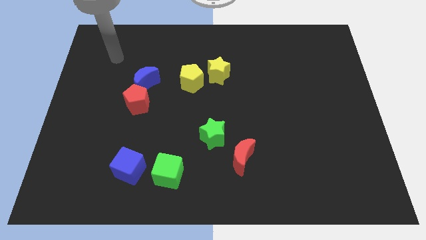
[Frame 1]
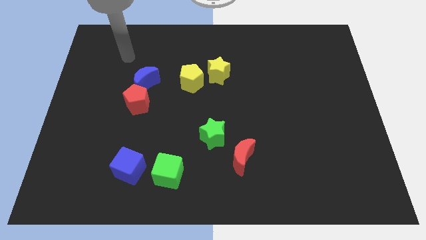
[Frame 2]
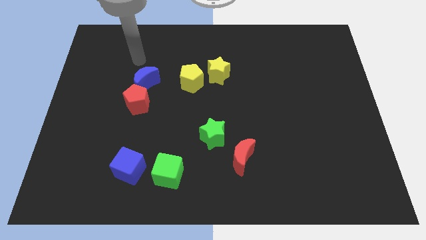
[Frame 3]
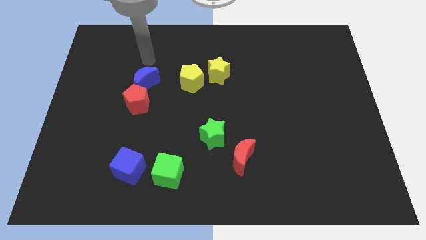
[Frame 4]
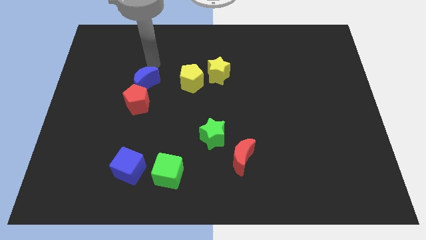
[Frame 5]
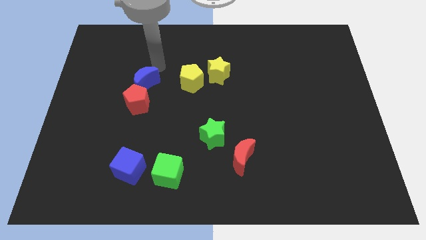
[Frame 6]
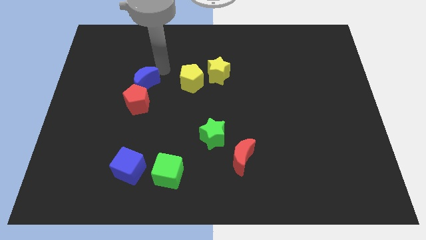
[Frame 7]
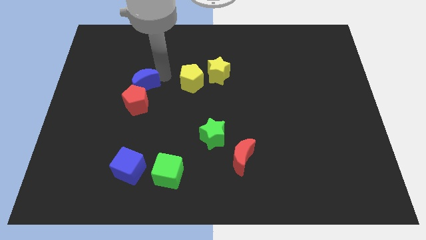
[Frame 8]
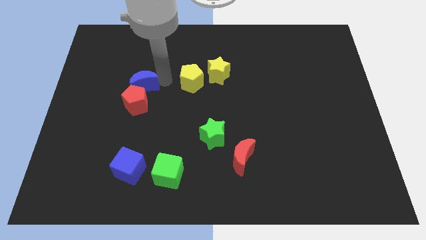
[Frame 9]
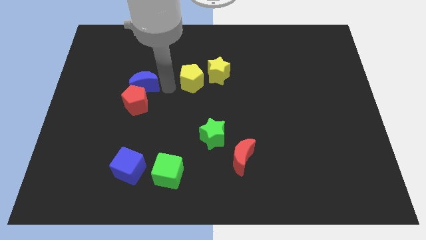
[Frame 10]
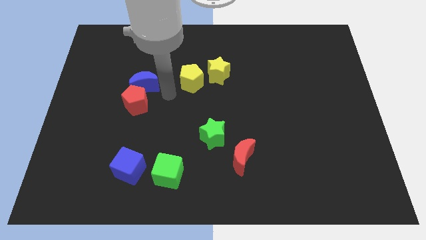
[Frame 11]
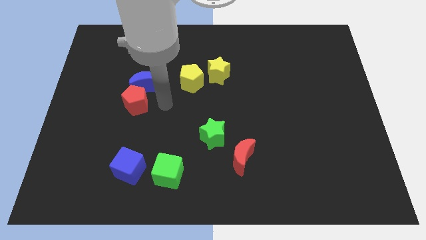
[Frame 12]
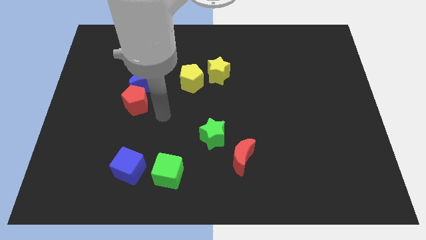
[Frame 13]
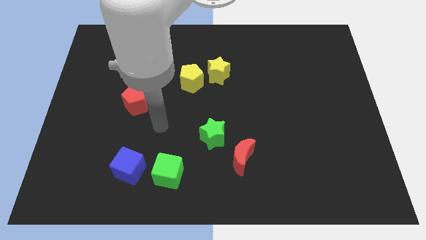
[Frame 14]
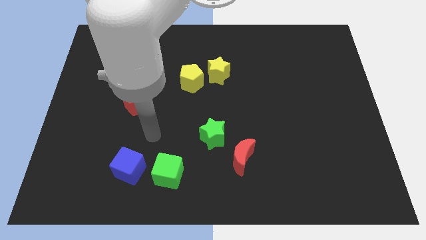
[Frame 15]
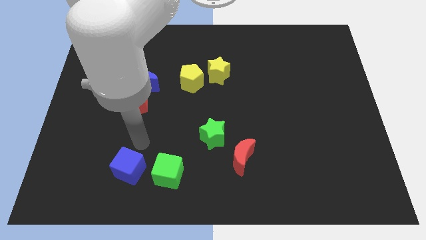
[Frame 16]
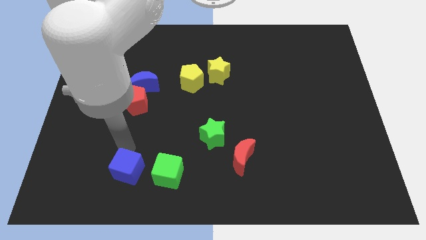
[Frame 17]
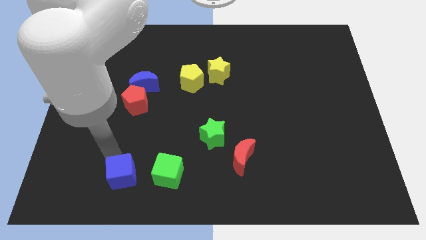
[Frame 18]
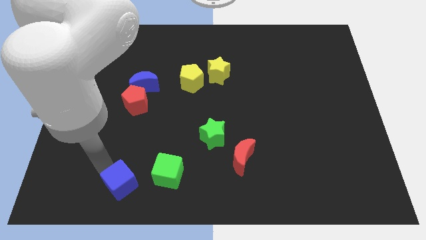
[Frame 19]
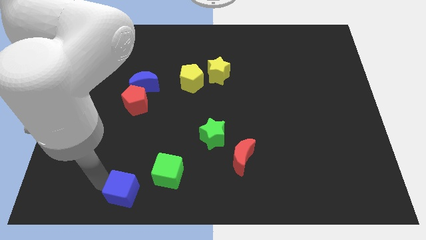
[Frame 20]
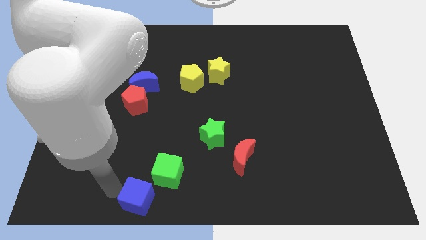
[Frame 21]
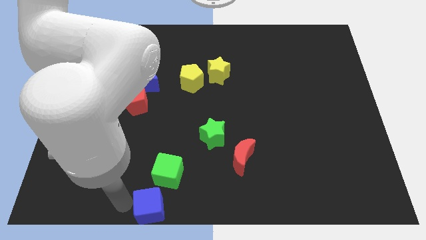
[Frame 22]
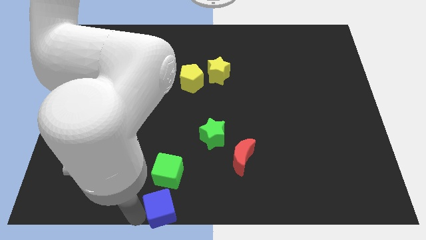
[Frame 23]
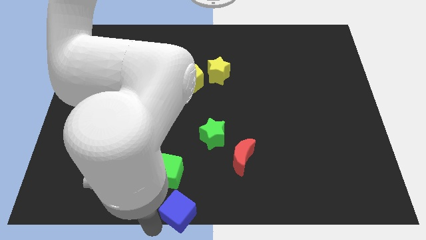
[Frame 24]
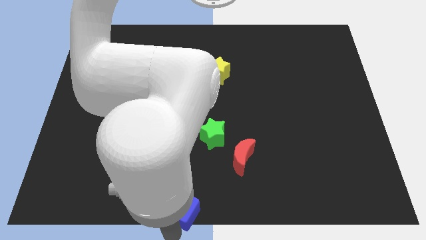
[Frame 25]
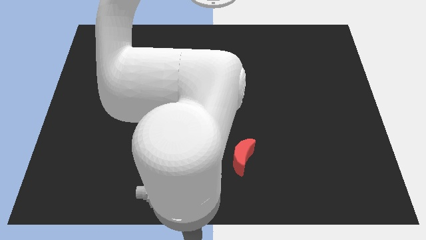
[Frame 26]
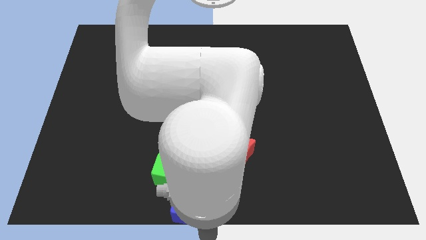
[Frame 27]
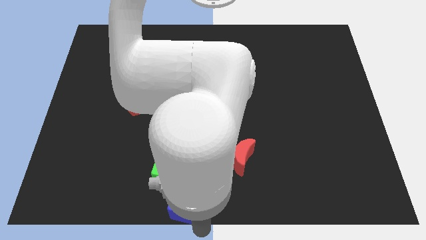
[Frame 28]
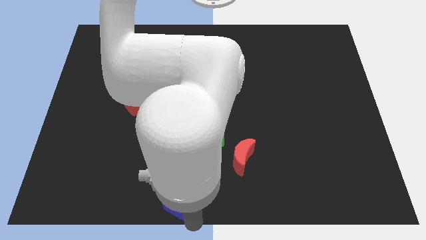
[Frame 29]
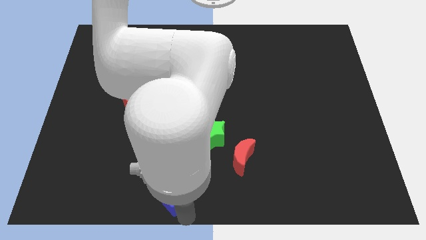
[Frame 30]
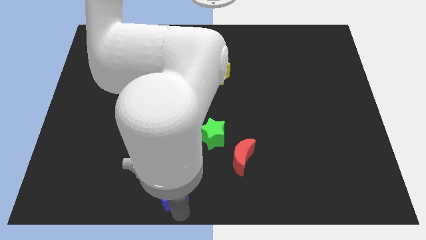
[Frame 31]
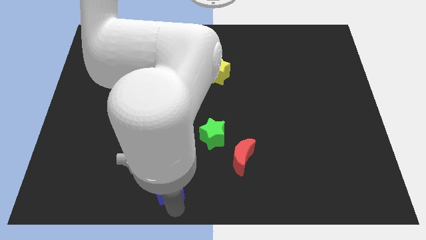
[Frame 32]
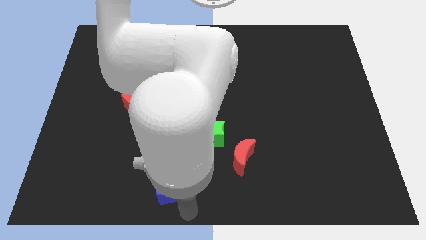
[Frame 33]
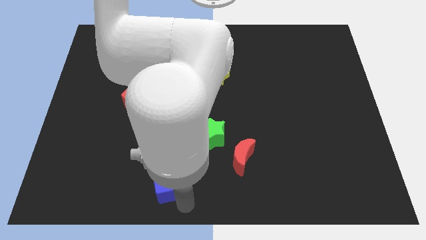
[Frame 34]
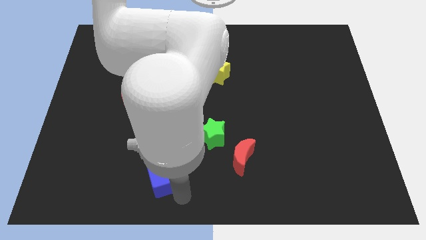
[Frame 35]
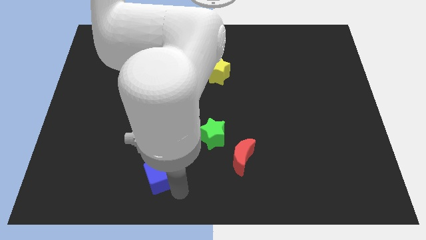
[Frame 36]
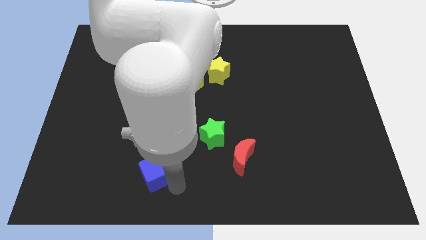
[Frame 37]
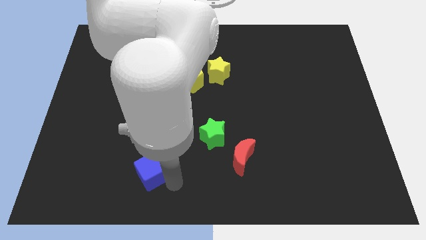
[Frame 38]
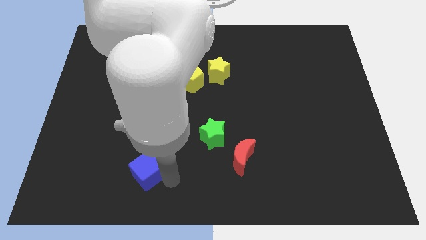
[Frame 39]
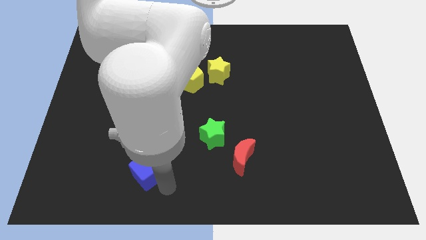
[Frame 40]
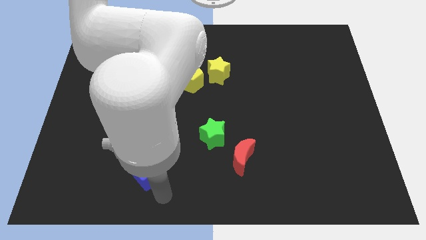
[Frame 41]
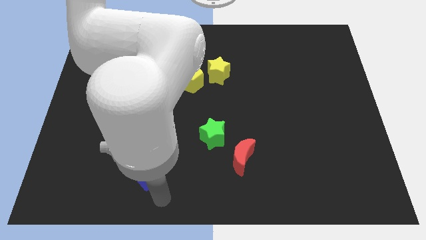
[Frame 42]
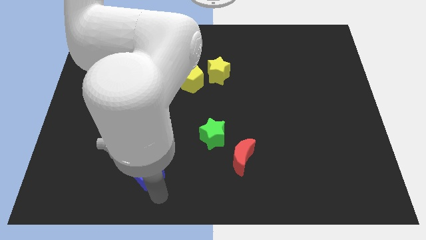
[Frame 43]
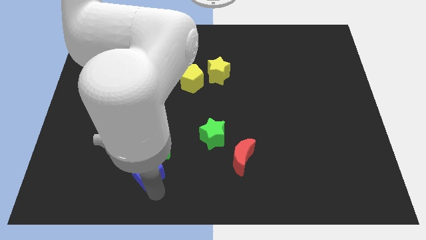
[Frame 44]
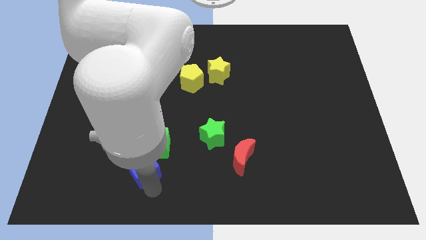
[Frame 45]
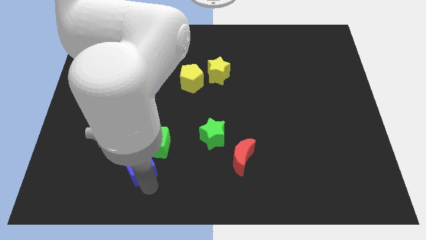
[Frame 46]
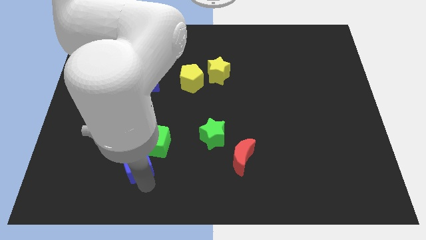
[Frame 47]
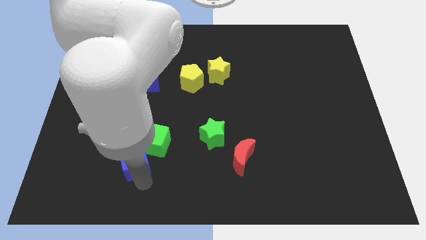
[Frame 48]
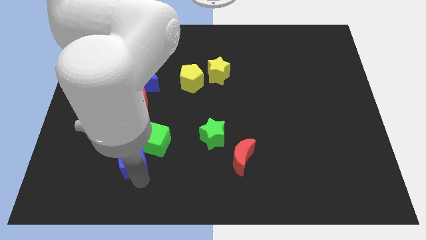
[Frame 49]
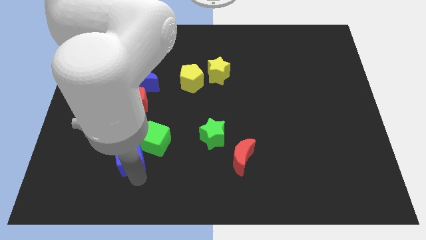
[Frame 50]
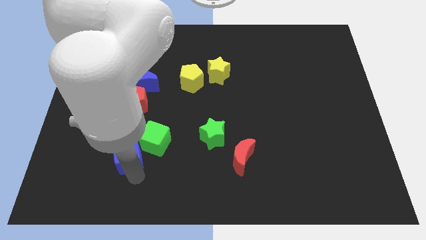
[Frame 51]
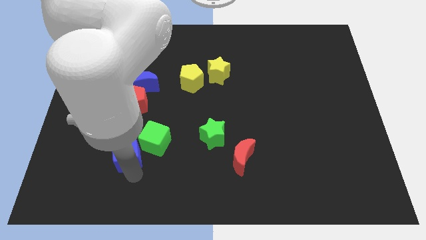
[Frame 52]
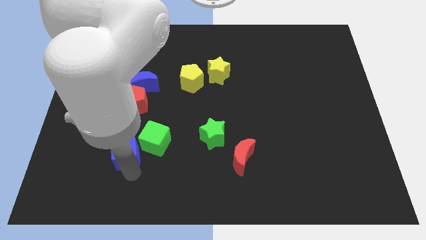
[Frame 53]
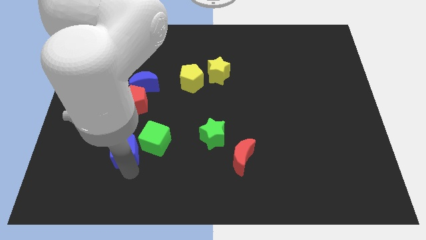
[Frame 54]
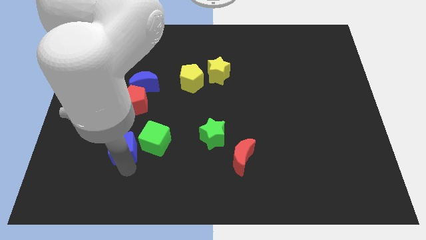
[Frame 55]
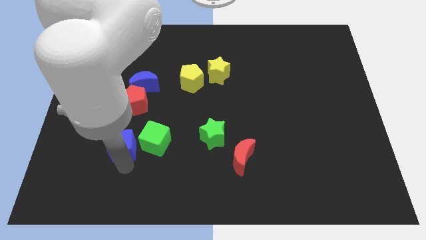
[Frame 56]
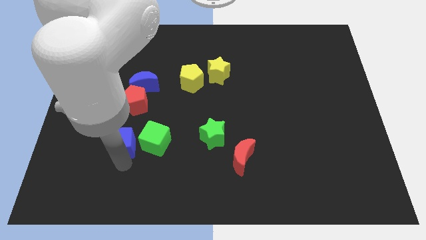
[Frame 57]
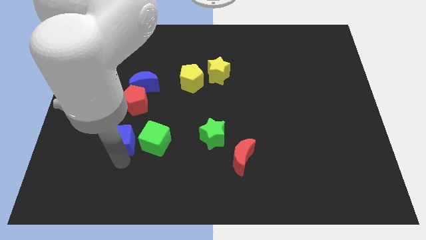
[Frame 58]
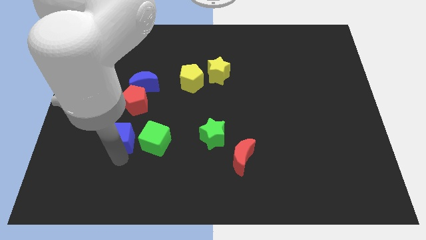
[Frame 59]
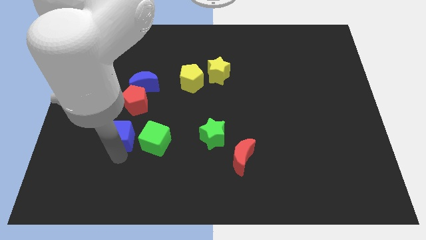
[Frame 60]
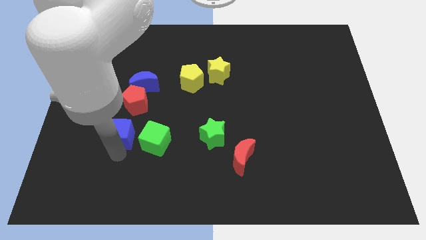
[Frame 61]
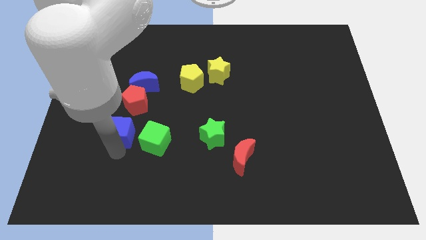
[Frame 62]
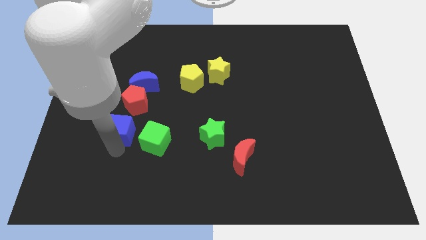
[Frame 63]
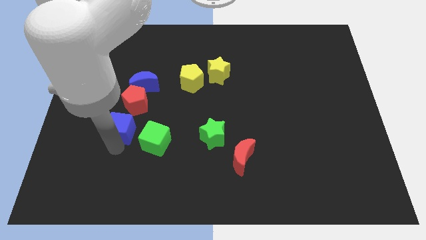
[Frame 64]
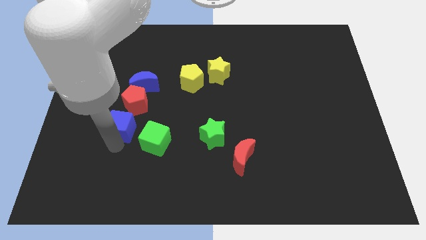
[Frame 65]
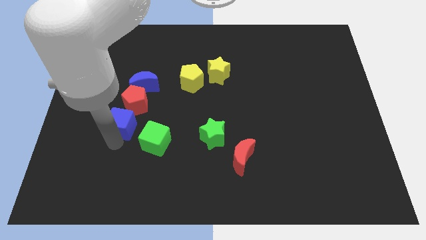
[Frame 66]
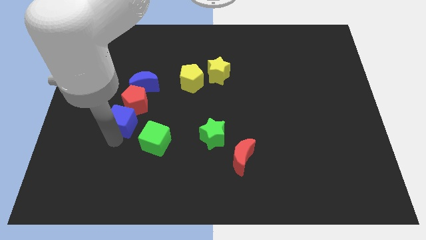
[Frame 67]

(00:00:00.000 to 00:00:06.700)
move the blue cube towards the red pentagon

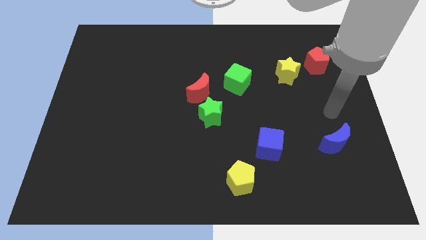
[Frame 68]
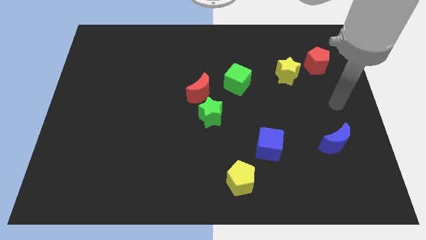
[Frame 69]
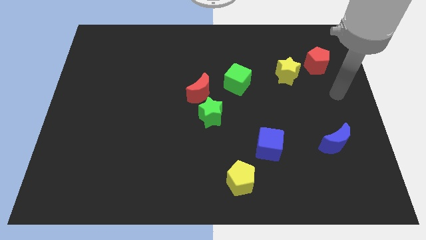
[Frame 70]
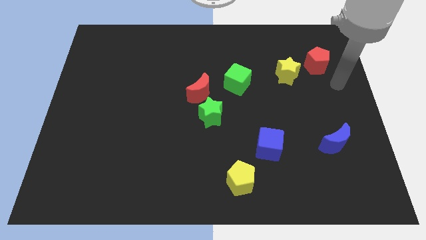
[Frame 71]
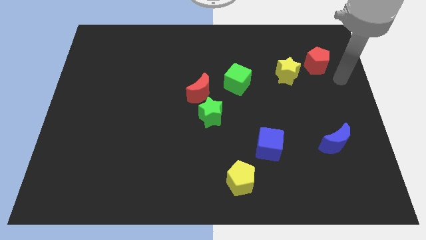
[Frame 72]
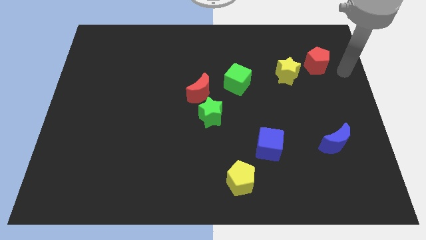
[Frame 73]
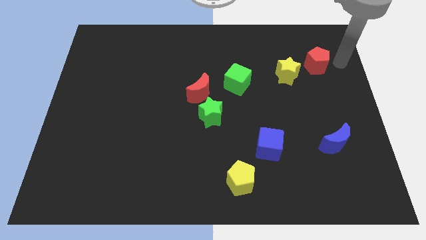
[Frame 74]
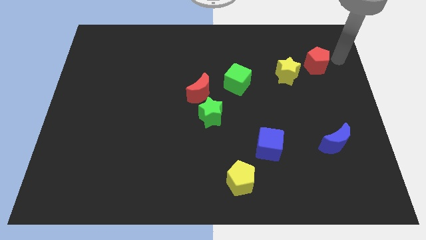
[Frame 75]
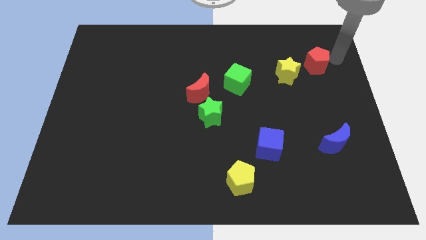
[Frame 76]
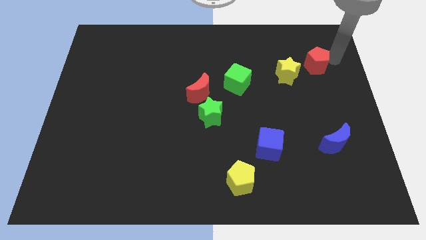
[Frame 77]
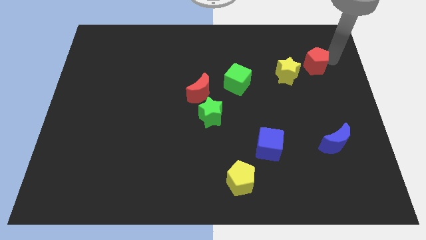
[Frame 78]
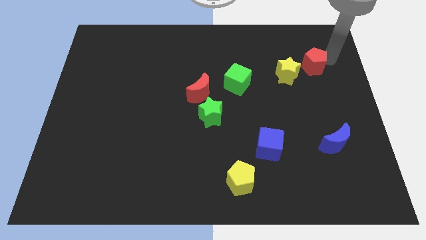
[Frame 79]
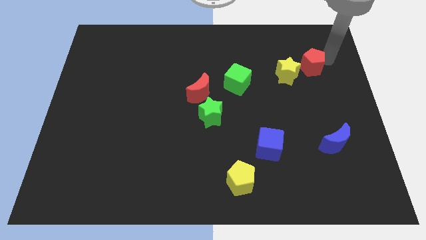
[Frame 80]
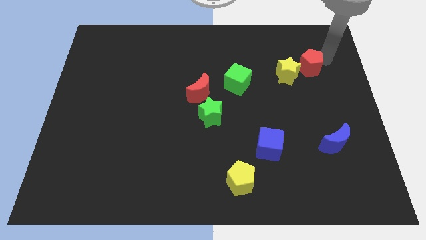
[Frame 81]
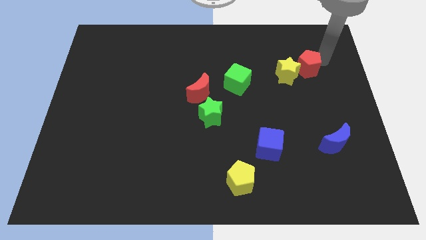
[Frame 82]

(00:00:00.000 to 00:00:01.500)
move the red pentagon next to the yellow star
